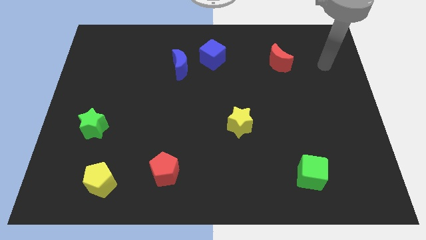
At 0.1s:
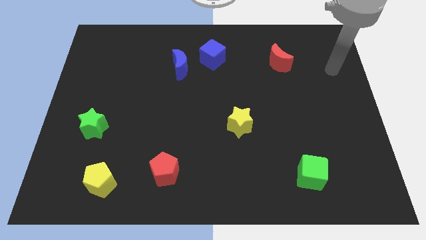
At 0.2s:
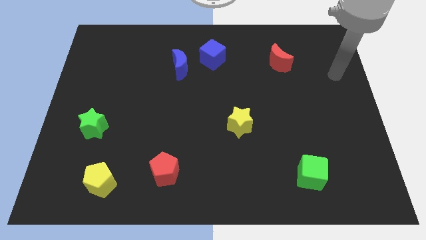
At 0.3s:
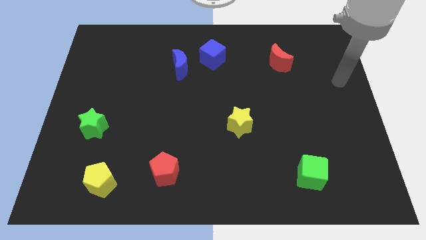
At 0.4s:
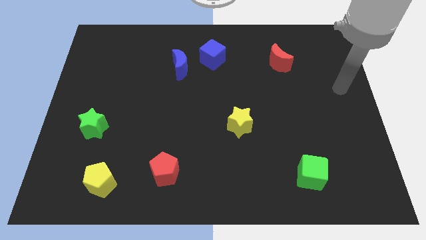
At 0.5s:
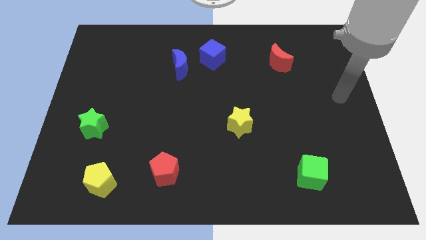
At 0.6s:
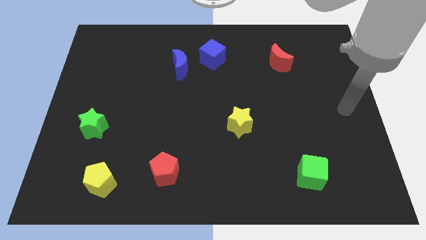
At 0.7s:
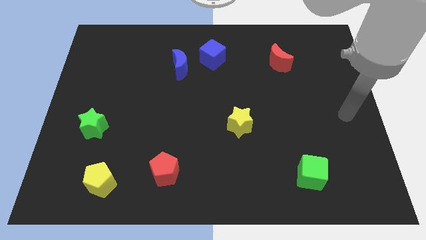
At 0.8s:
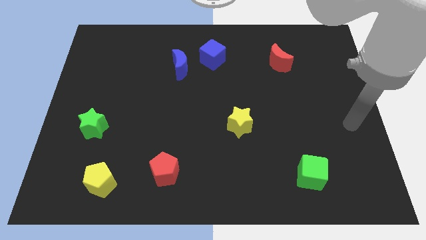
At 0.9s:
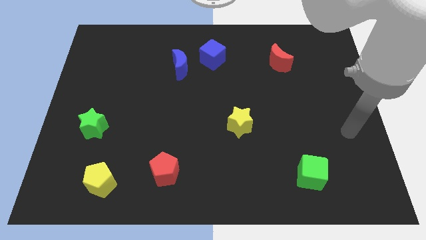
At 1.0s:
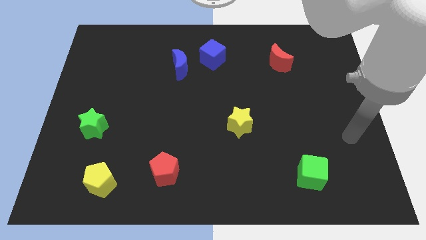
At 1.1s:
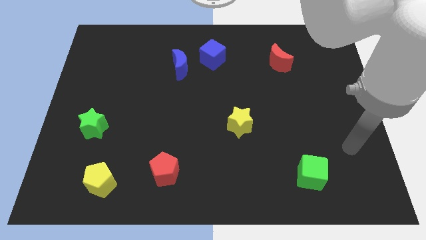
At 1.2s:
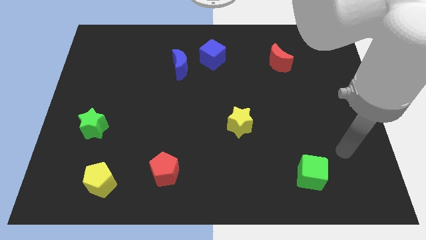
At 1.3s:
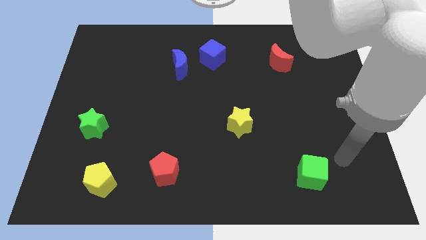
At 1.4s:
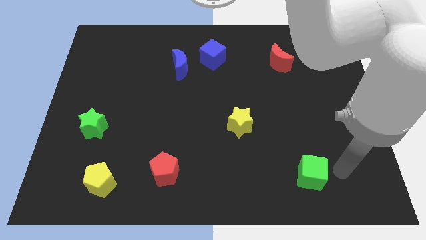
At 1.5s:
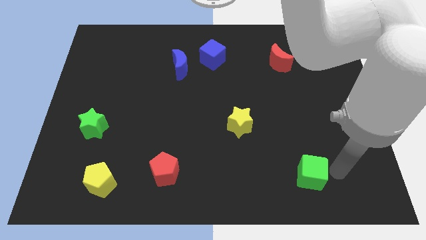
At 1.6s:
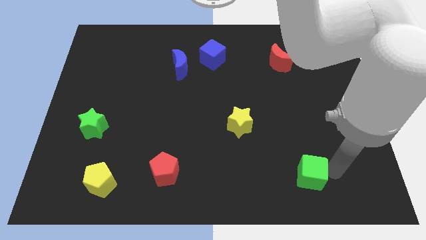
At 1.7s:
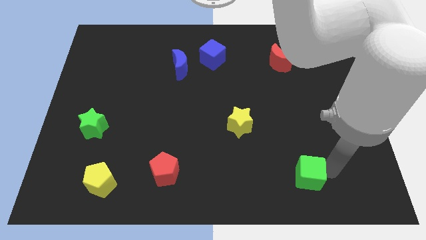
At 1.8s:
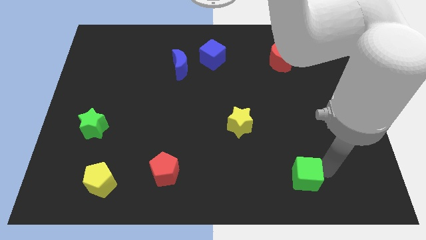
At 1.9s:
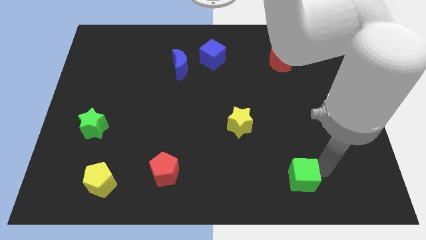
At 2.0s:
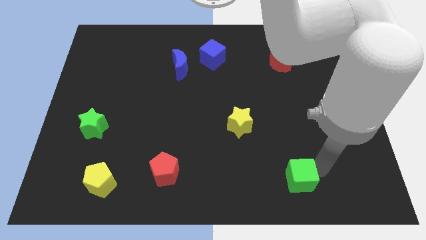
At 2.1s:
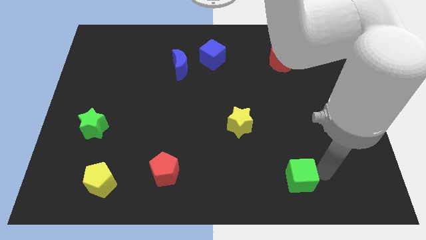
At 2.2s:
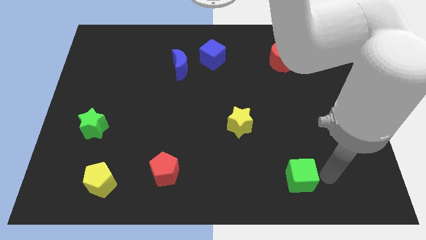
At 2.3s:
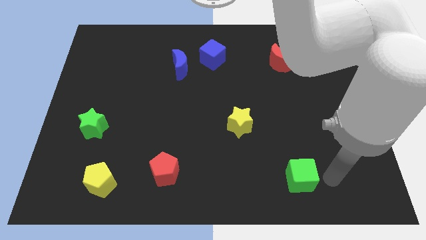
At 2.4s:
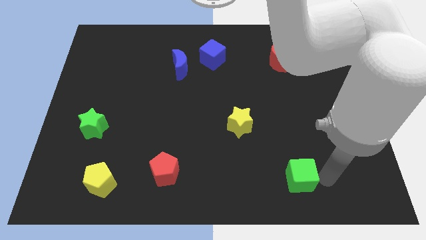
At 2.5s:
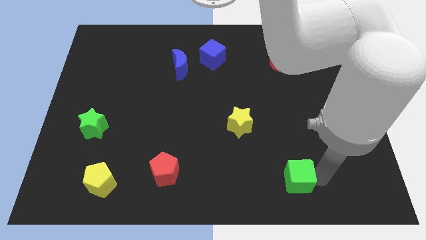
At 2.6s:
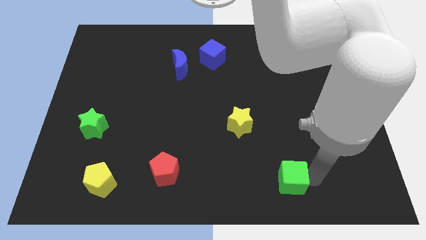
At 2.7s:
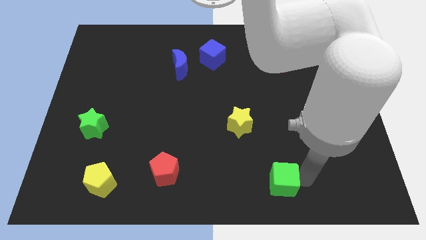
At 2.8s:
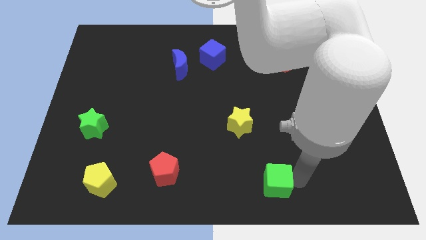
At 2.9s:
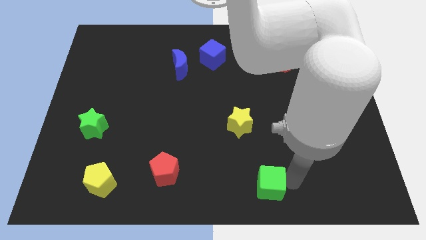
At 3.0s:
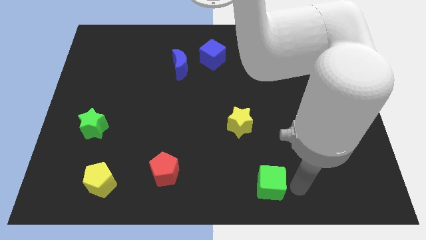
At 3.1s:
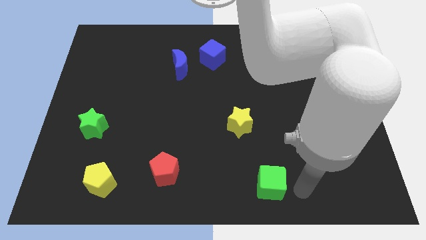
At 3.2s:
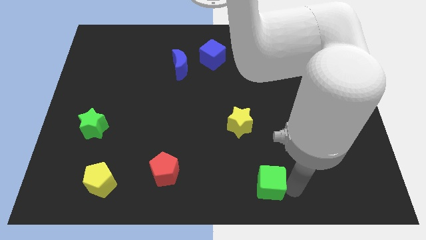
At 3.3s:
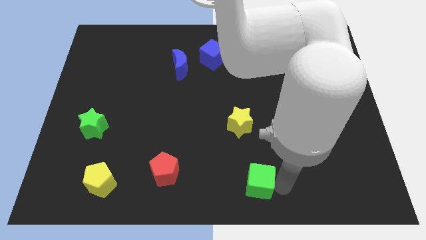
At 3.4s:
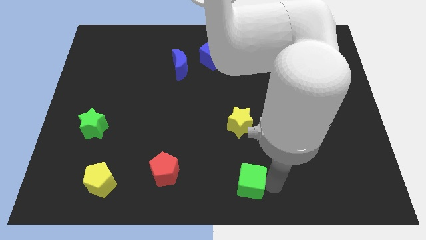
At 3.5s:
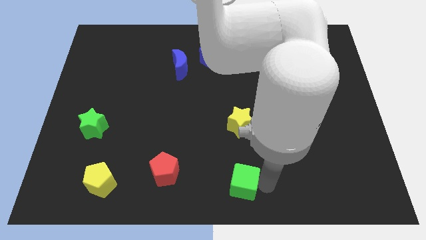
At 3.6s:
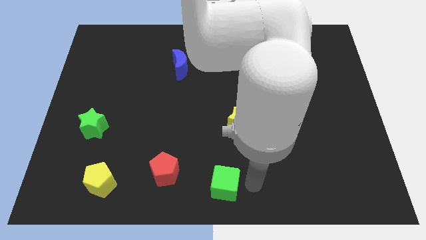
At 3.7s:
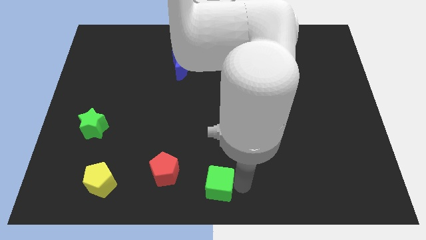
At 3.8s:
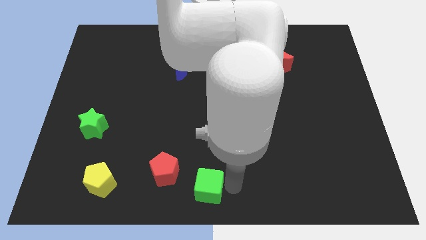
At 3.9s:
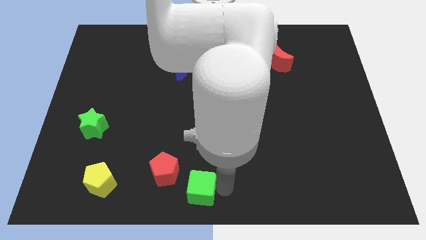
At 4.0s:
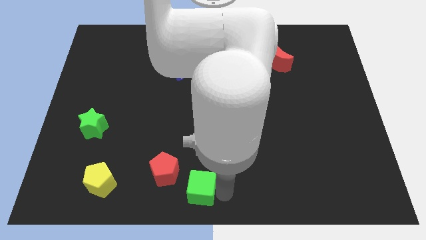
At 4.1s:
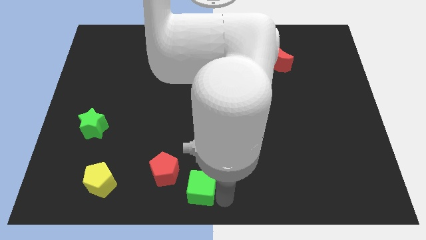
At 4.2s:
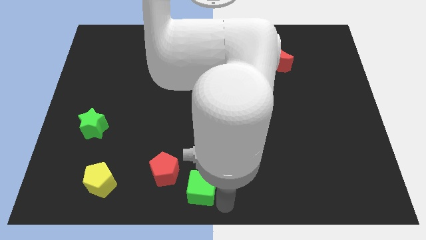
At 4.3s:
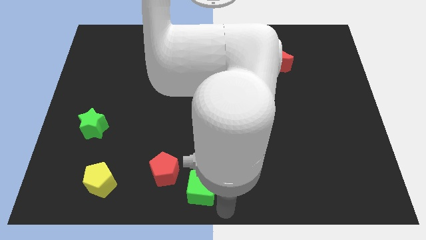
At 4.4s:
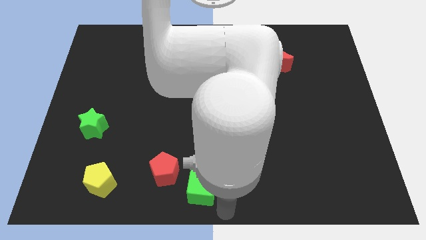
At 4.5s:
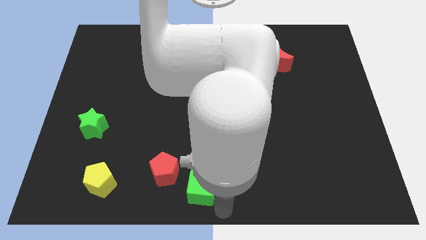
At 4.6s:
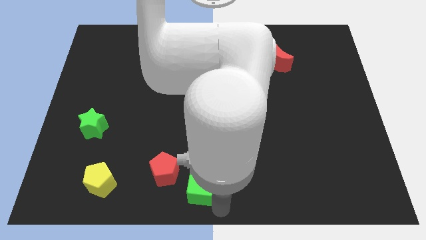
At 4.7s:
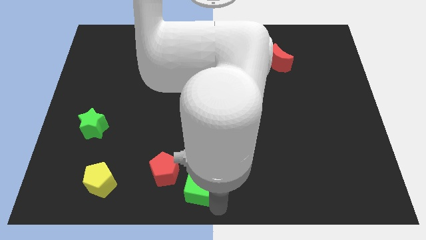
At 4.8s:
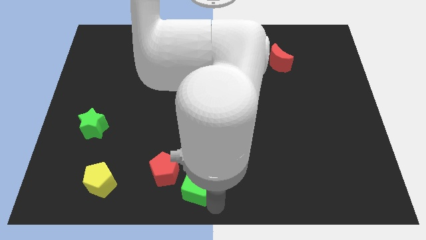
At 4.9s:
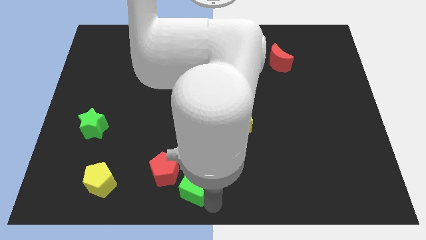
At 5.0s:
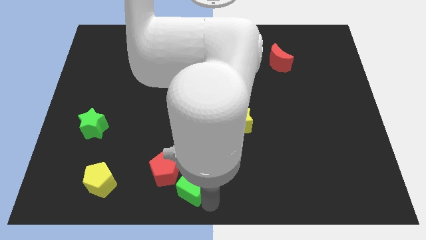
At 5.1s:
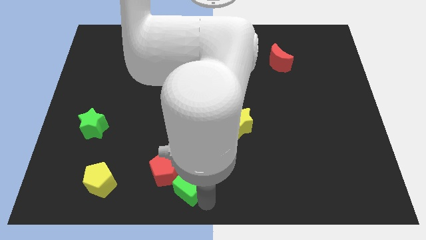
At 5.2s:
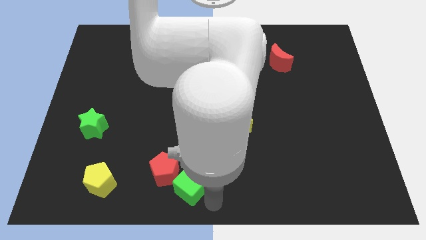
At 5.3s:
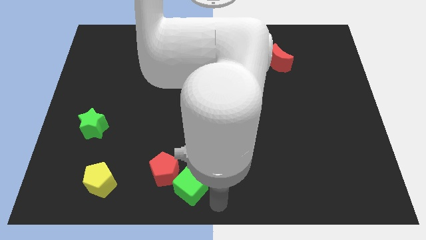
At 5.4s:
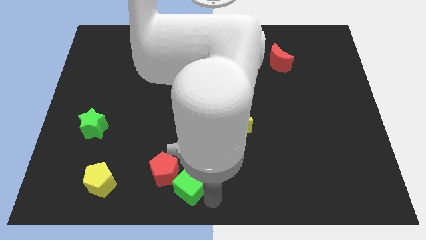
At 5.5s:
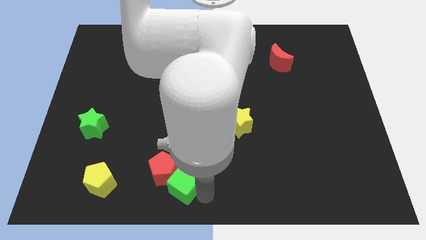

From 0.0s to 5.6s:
put the green cube to the red pentagon
